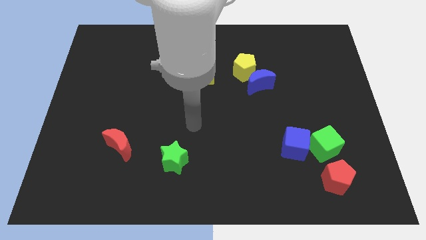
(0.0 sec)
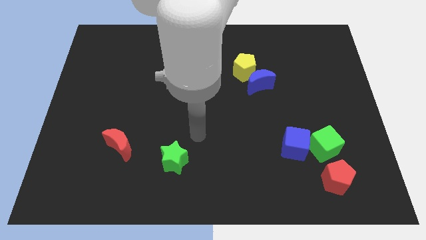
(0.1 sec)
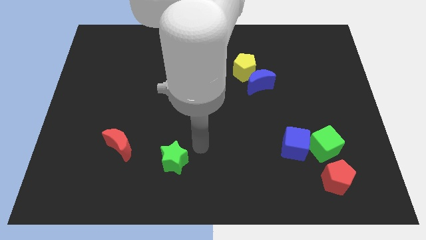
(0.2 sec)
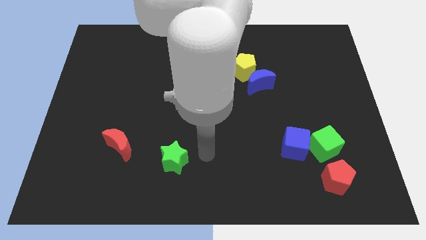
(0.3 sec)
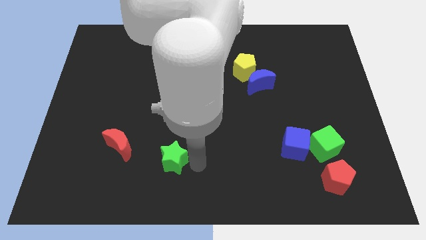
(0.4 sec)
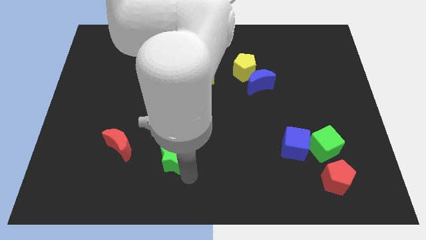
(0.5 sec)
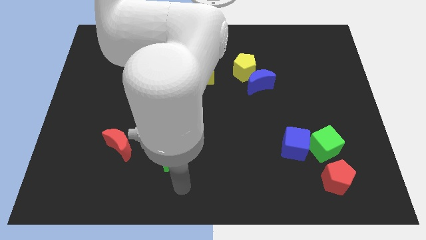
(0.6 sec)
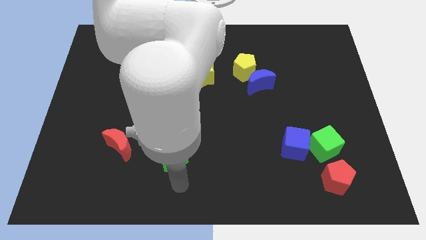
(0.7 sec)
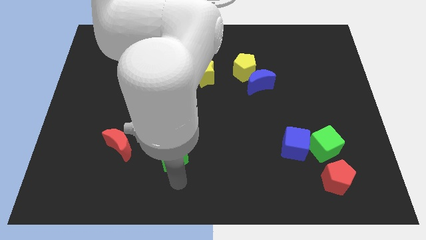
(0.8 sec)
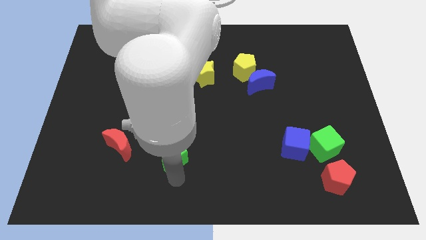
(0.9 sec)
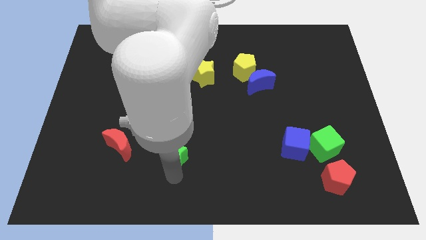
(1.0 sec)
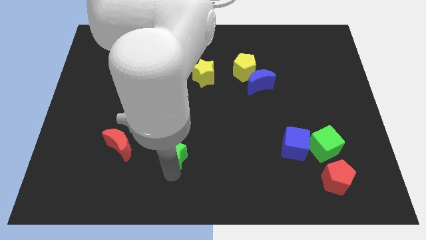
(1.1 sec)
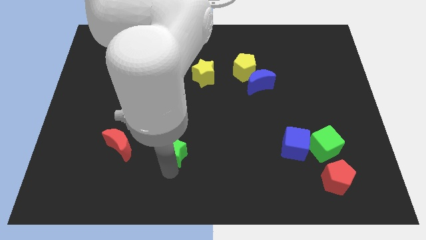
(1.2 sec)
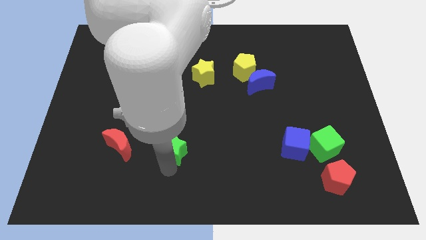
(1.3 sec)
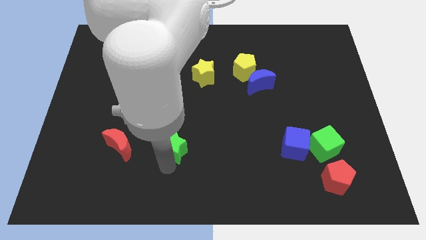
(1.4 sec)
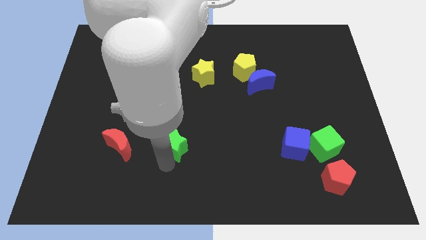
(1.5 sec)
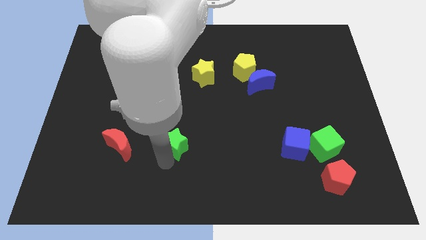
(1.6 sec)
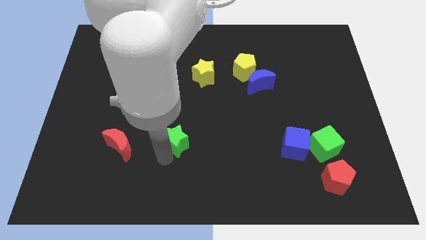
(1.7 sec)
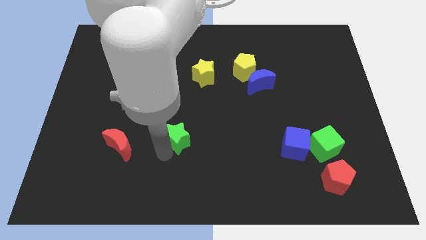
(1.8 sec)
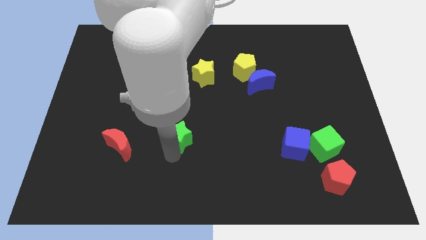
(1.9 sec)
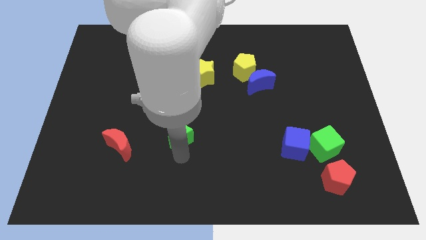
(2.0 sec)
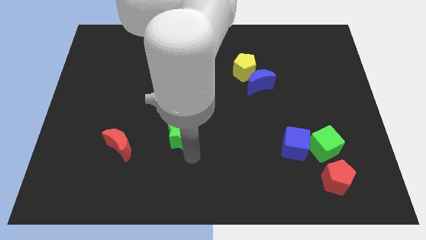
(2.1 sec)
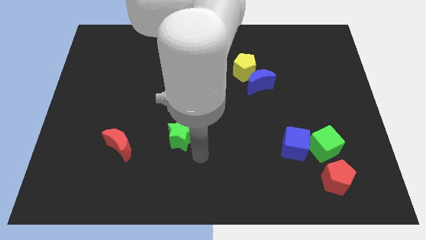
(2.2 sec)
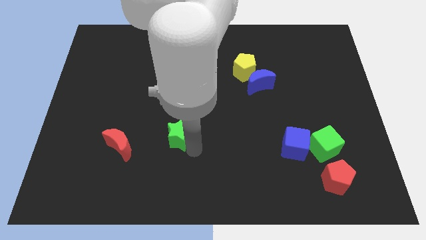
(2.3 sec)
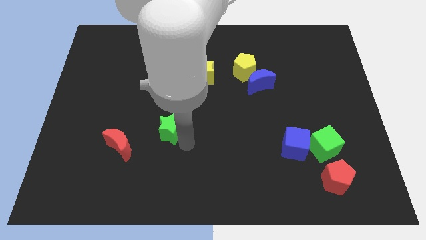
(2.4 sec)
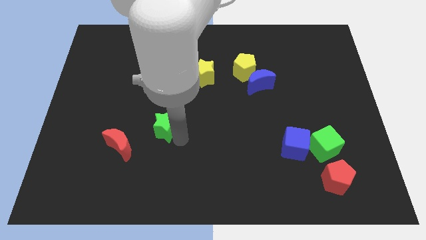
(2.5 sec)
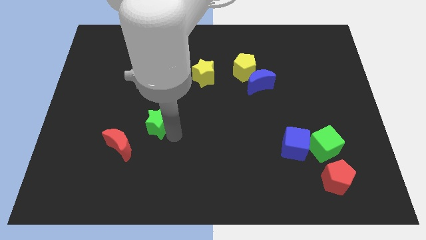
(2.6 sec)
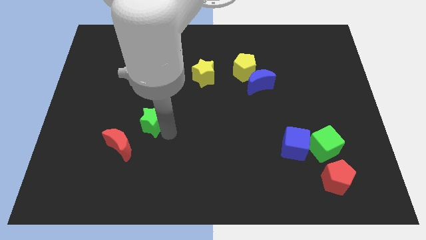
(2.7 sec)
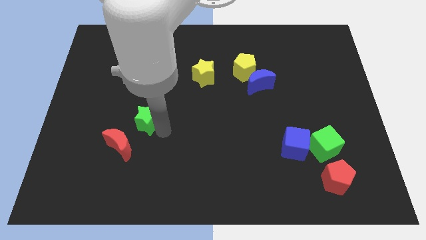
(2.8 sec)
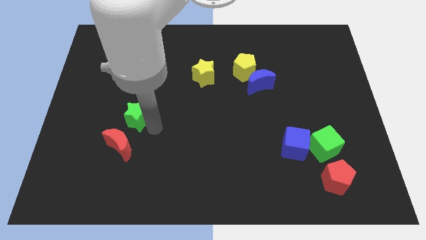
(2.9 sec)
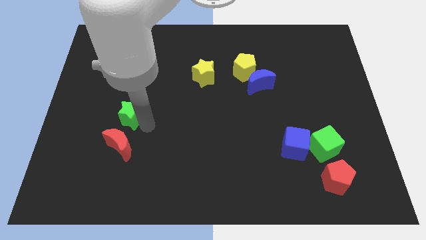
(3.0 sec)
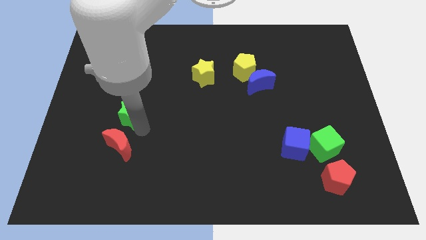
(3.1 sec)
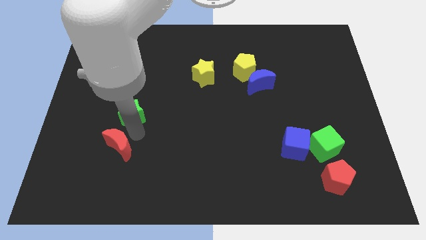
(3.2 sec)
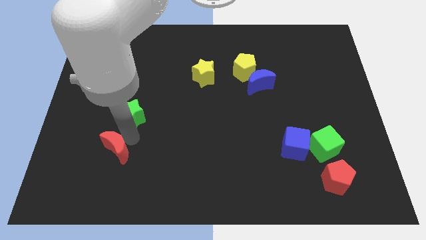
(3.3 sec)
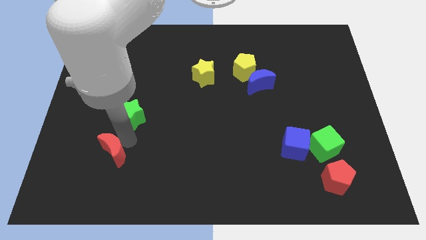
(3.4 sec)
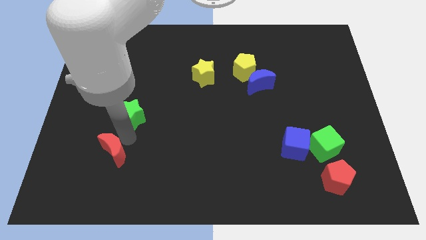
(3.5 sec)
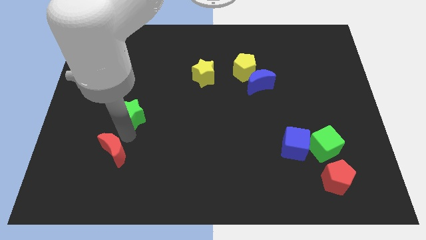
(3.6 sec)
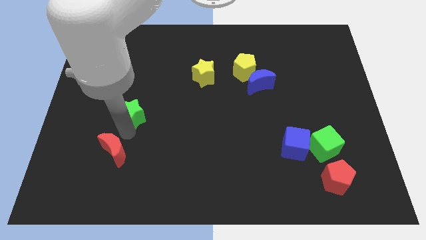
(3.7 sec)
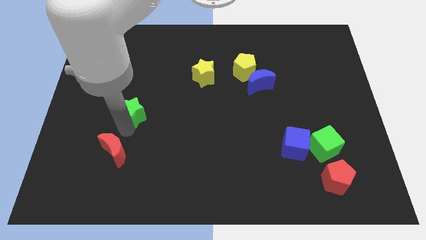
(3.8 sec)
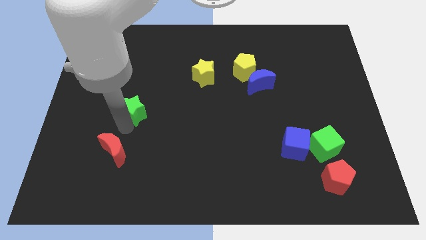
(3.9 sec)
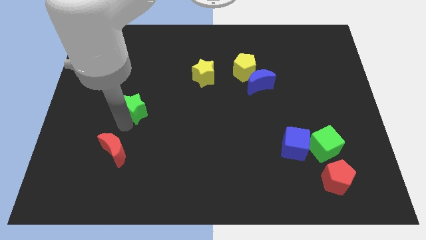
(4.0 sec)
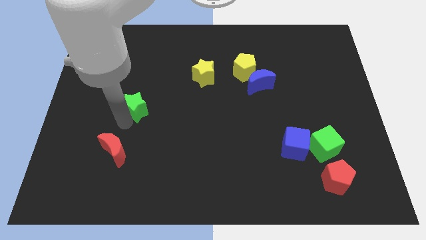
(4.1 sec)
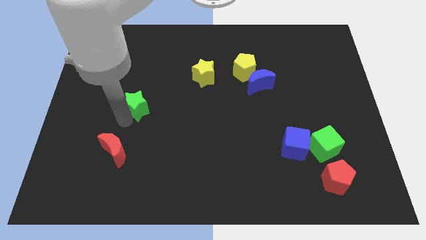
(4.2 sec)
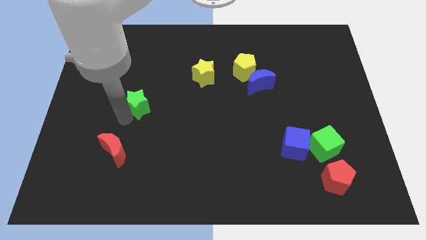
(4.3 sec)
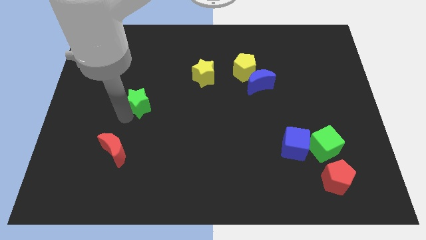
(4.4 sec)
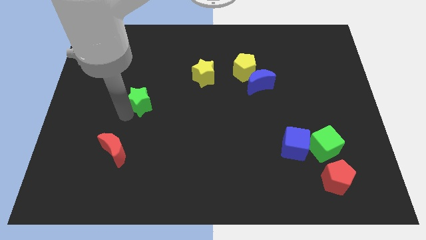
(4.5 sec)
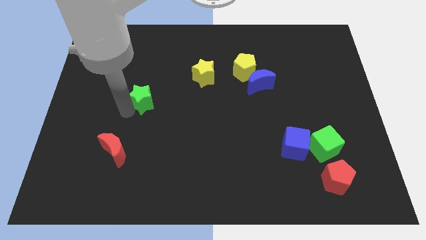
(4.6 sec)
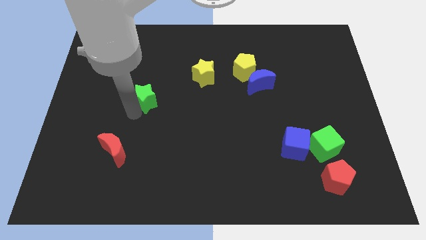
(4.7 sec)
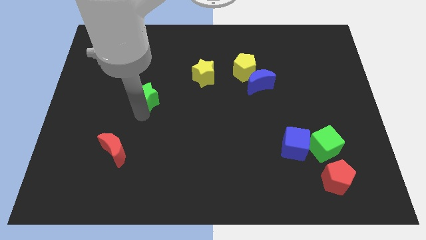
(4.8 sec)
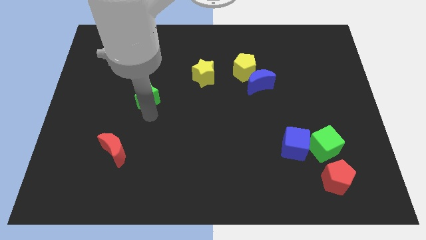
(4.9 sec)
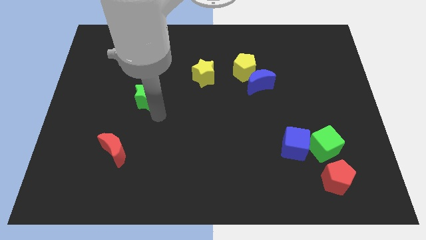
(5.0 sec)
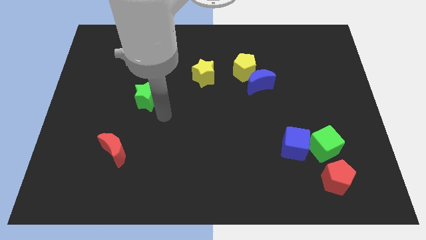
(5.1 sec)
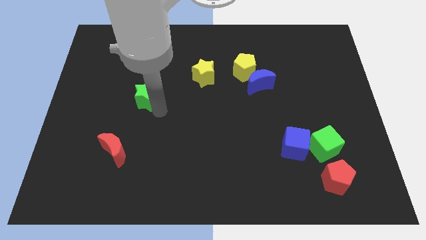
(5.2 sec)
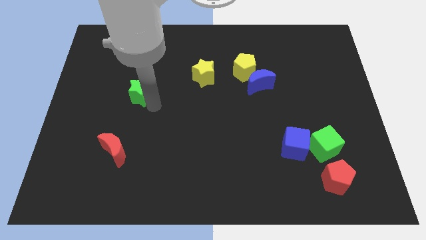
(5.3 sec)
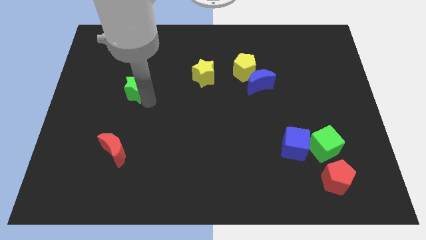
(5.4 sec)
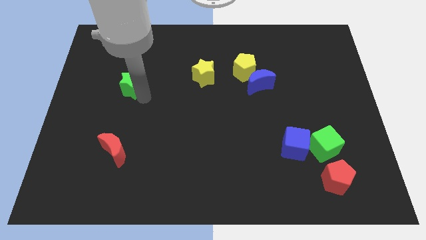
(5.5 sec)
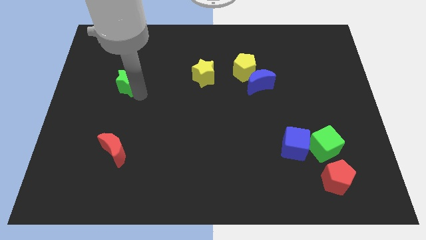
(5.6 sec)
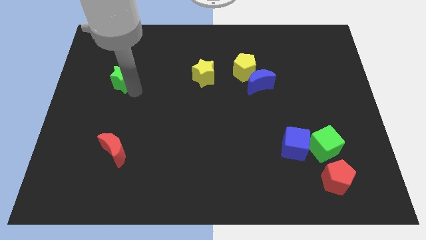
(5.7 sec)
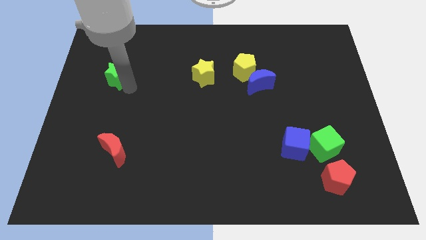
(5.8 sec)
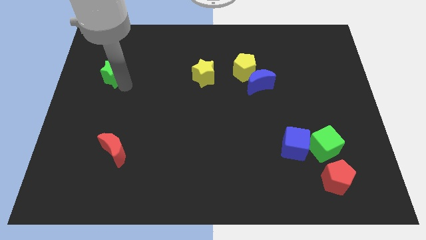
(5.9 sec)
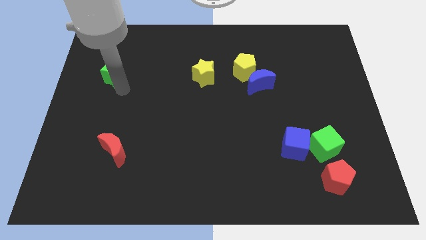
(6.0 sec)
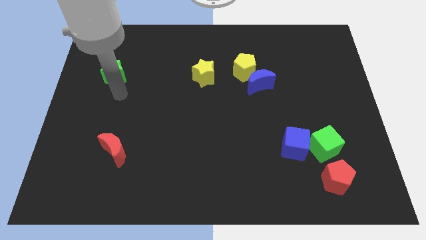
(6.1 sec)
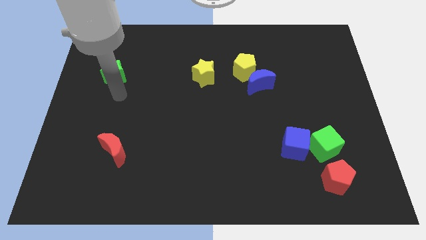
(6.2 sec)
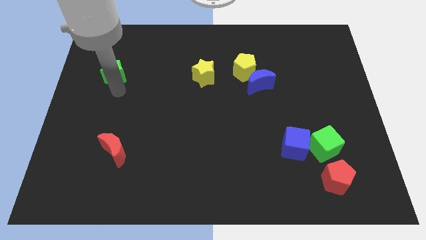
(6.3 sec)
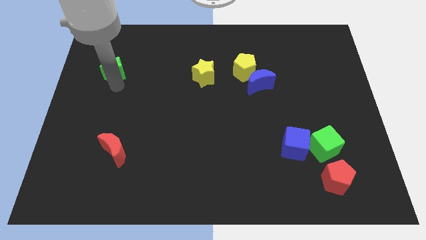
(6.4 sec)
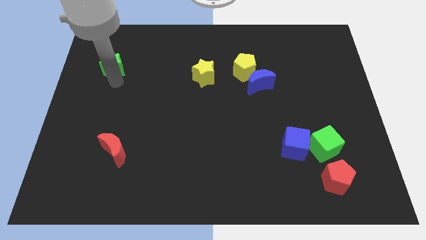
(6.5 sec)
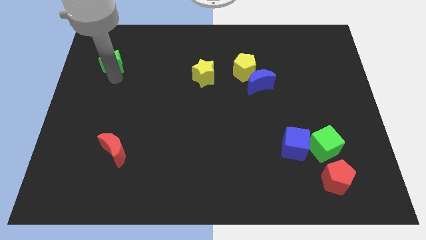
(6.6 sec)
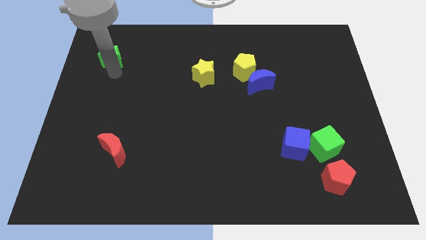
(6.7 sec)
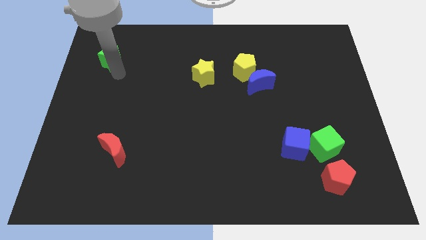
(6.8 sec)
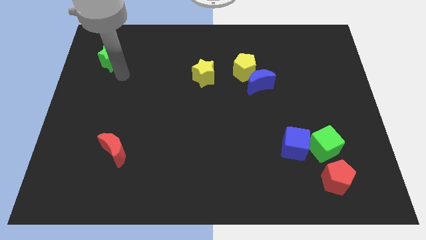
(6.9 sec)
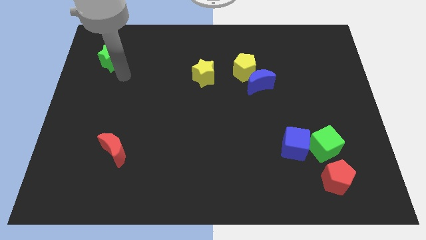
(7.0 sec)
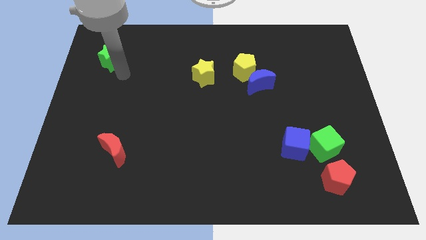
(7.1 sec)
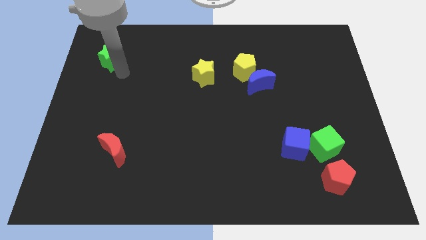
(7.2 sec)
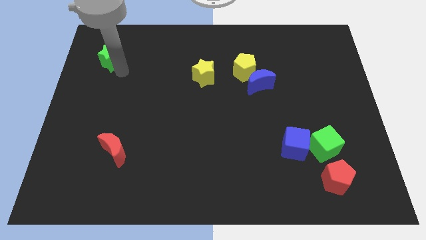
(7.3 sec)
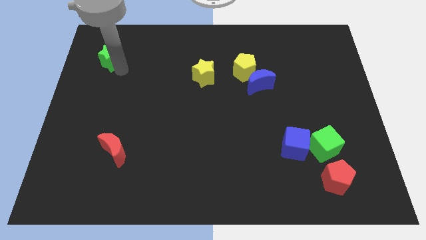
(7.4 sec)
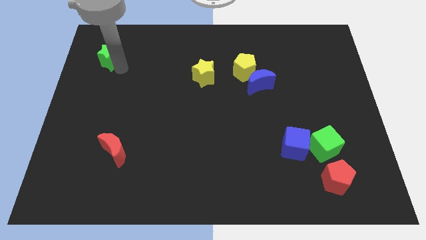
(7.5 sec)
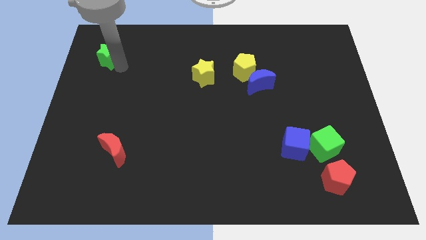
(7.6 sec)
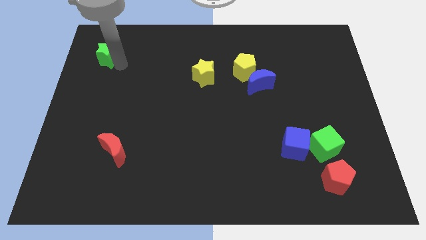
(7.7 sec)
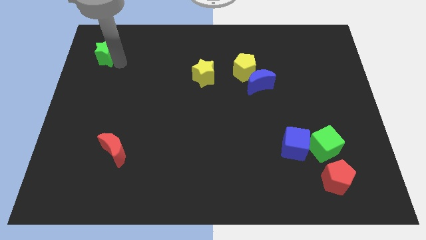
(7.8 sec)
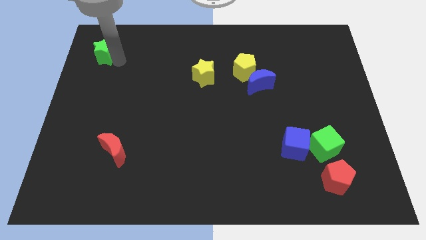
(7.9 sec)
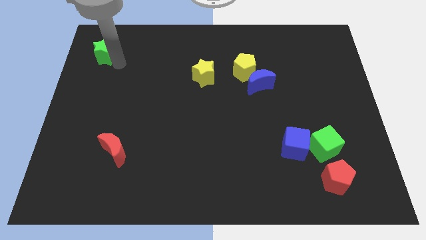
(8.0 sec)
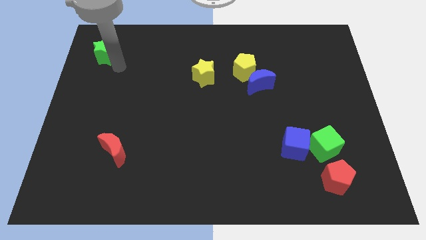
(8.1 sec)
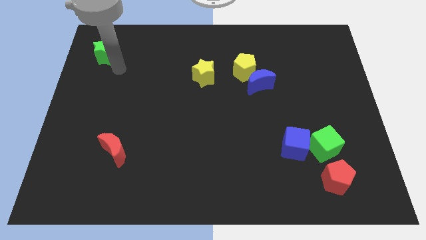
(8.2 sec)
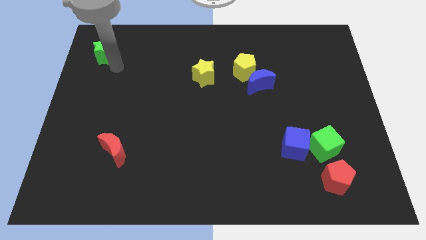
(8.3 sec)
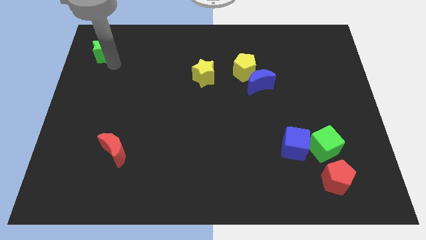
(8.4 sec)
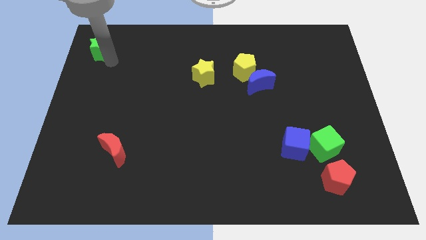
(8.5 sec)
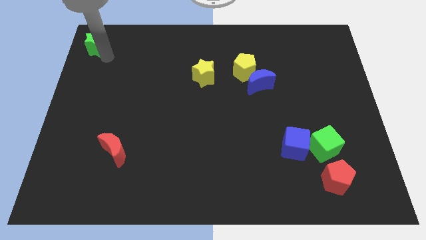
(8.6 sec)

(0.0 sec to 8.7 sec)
slide the green star to the top left corner
